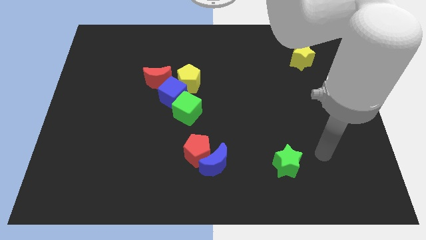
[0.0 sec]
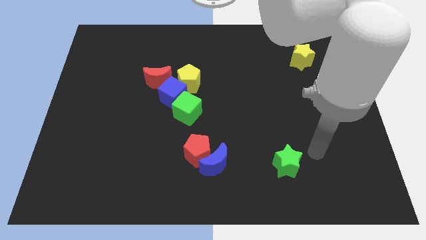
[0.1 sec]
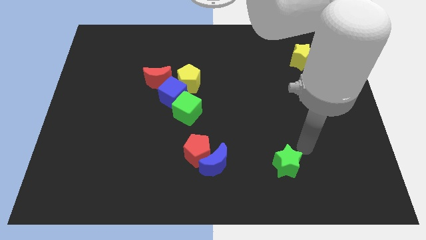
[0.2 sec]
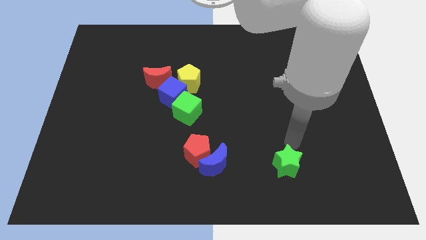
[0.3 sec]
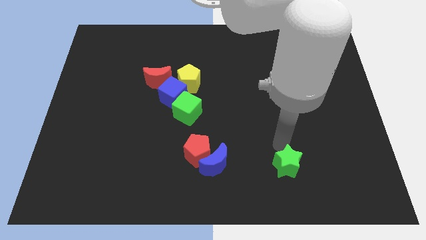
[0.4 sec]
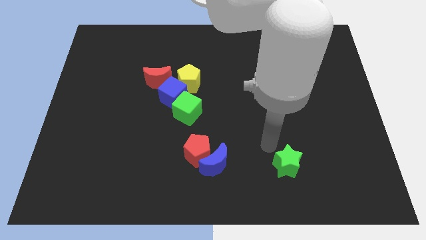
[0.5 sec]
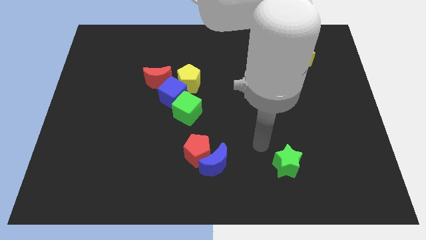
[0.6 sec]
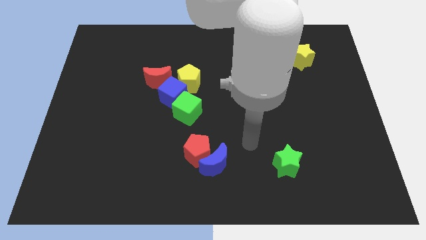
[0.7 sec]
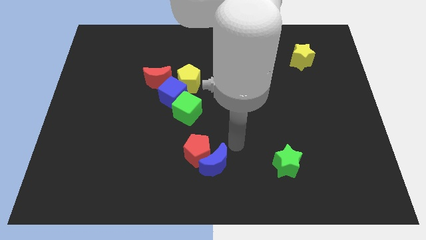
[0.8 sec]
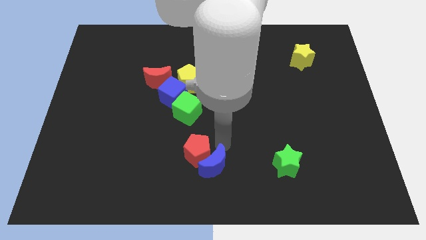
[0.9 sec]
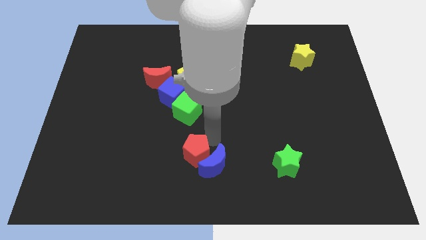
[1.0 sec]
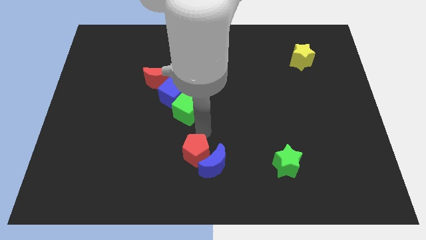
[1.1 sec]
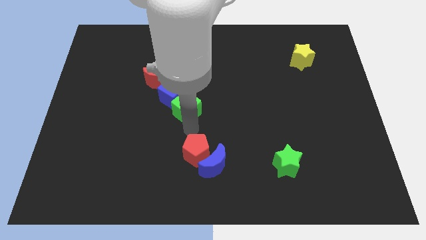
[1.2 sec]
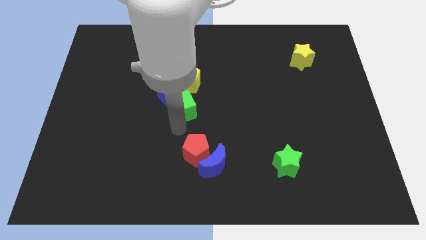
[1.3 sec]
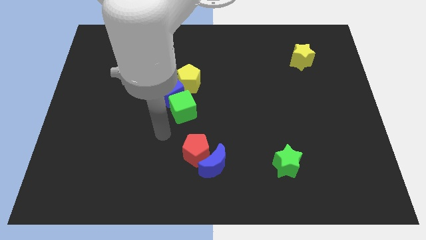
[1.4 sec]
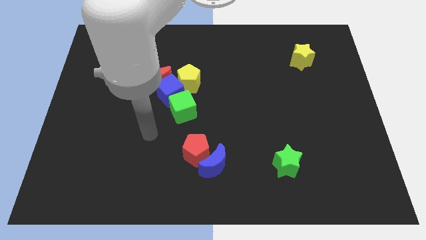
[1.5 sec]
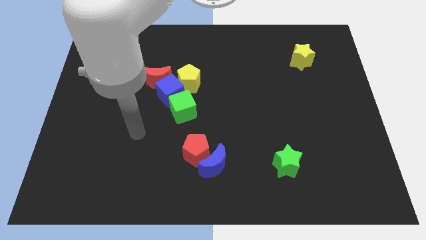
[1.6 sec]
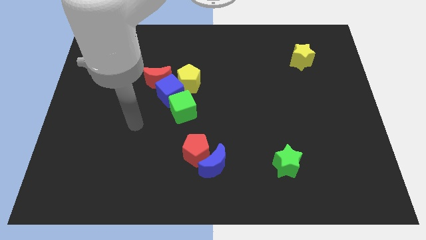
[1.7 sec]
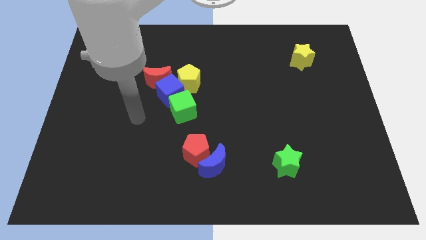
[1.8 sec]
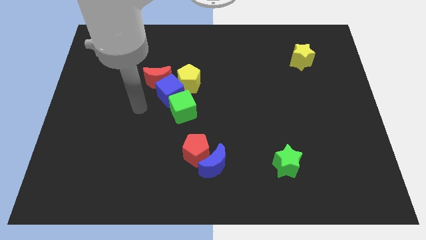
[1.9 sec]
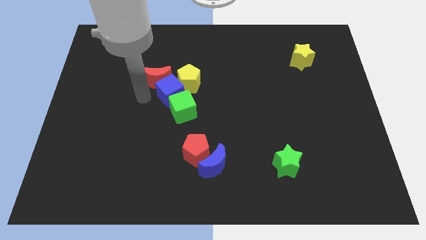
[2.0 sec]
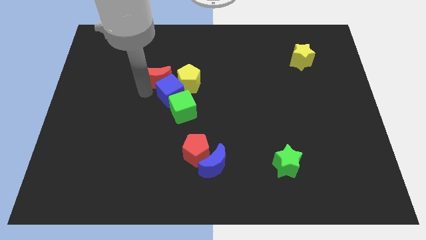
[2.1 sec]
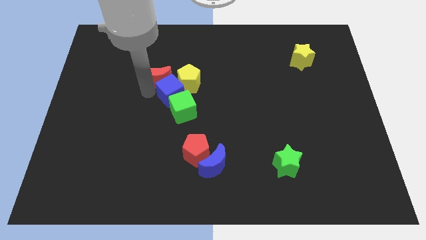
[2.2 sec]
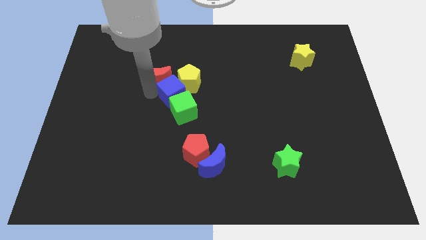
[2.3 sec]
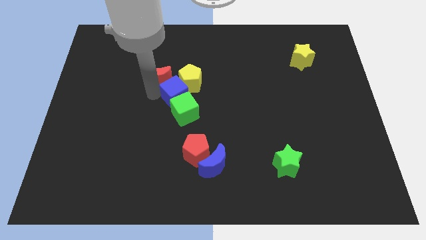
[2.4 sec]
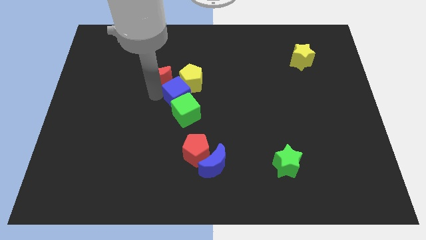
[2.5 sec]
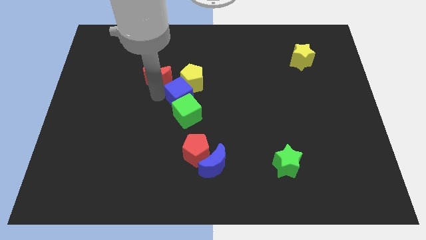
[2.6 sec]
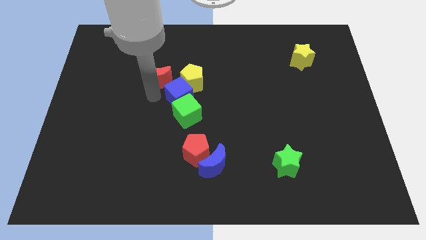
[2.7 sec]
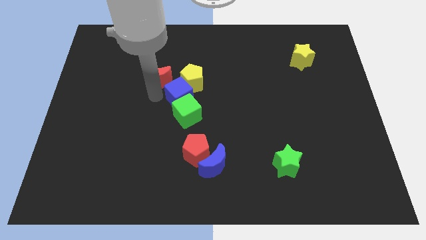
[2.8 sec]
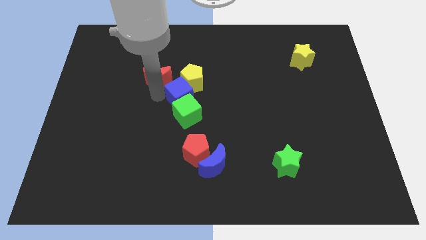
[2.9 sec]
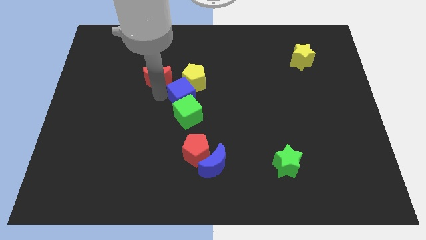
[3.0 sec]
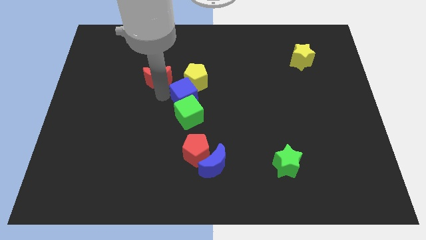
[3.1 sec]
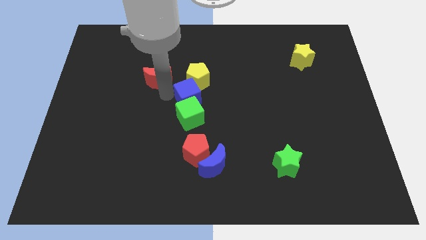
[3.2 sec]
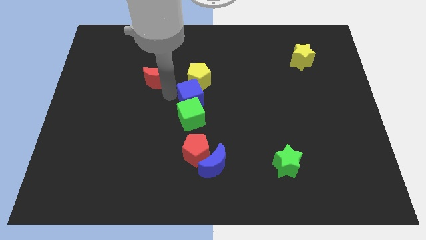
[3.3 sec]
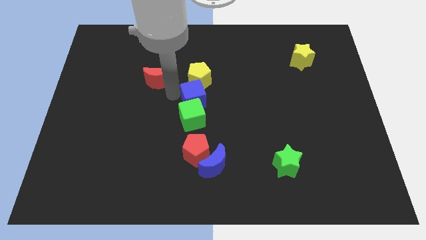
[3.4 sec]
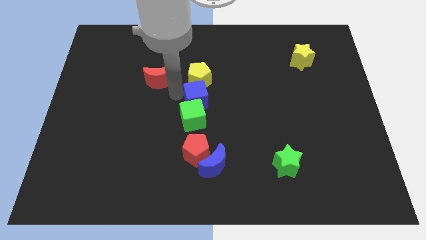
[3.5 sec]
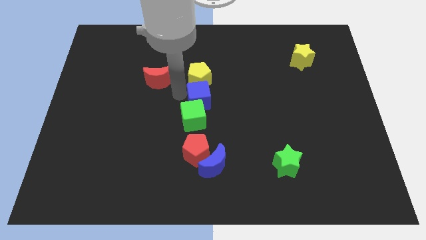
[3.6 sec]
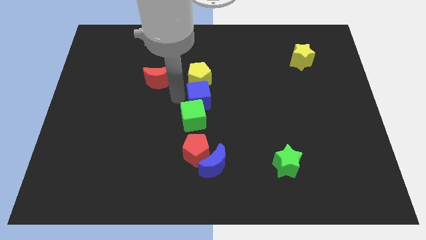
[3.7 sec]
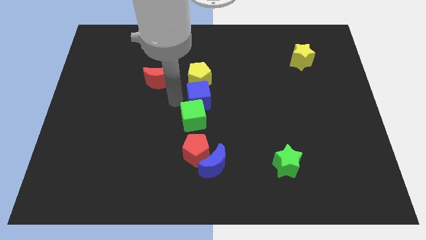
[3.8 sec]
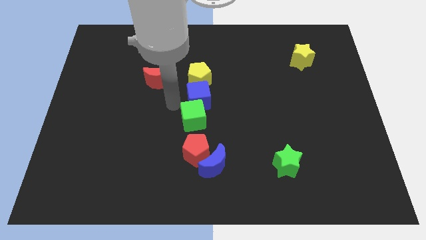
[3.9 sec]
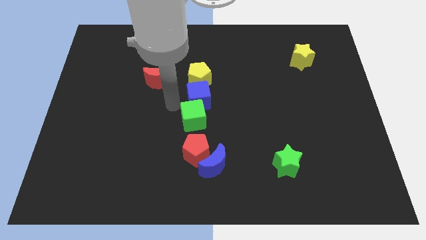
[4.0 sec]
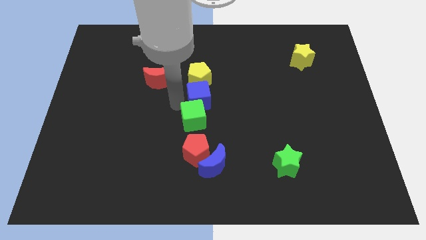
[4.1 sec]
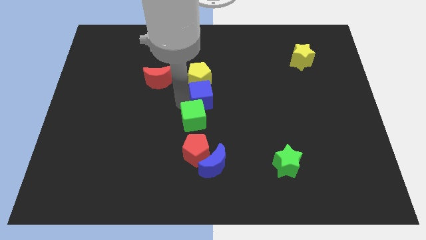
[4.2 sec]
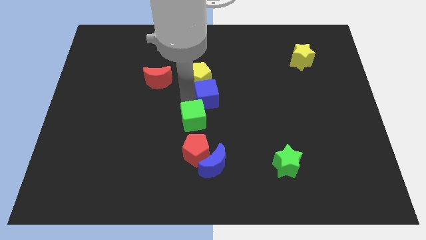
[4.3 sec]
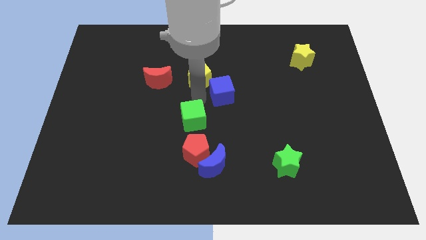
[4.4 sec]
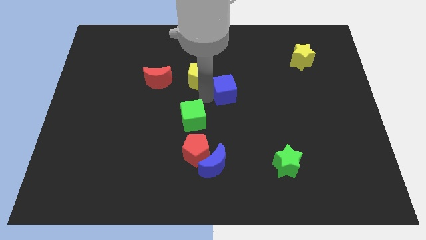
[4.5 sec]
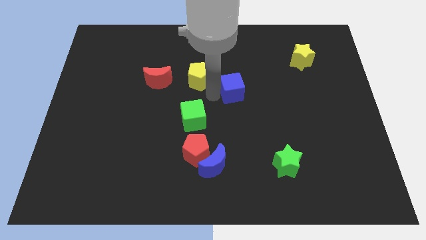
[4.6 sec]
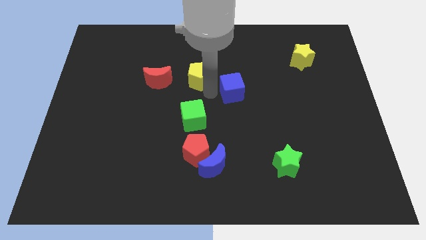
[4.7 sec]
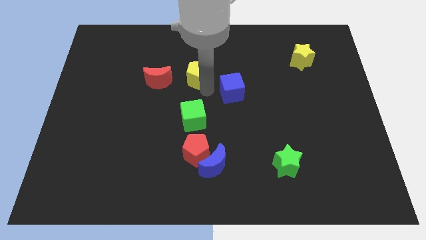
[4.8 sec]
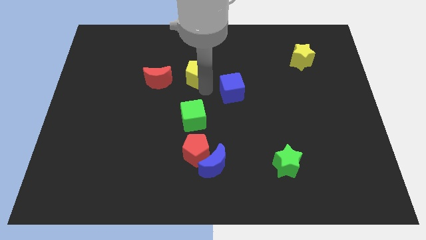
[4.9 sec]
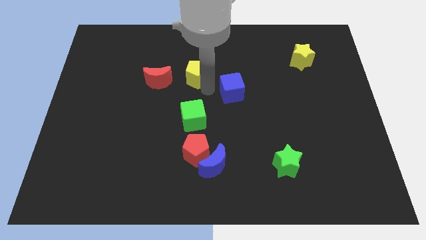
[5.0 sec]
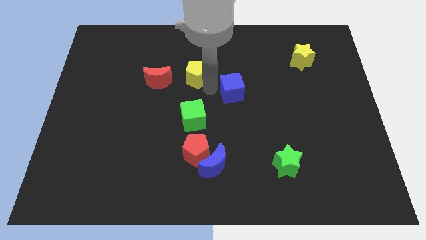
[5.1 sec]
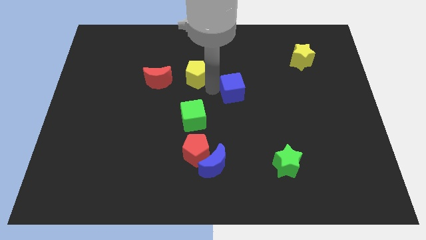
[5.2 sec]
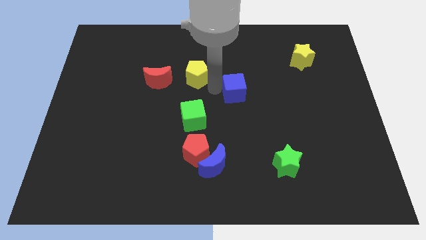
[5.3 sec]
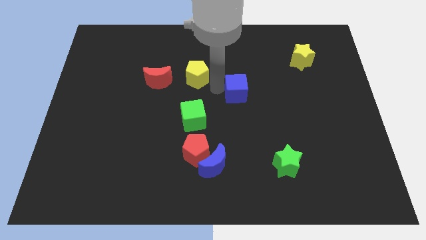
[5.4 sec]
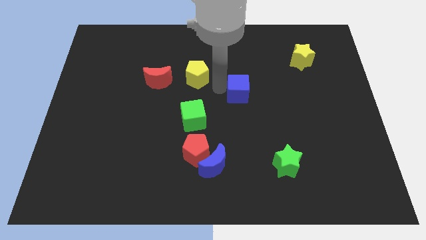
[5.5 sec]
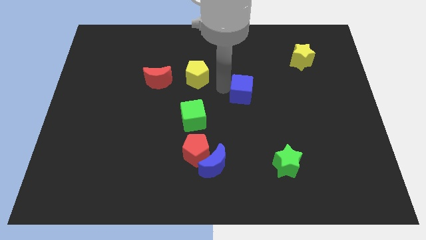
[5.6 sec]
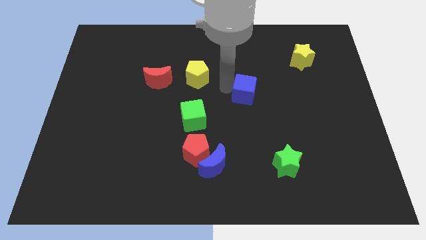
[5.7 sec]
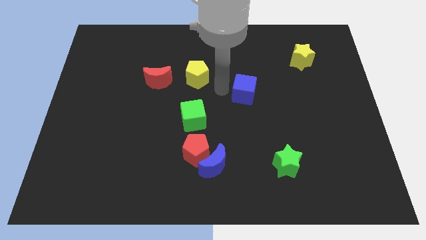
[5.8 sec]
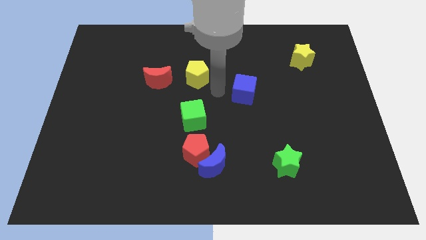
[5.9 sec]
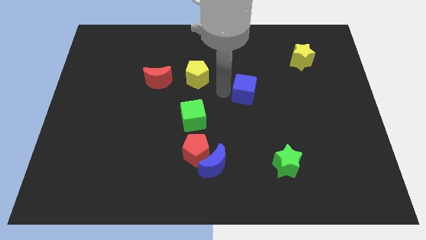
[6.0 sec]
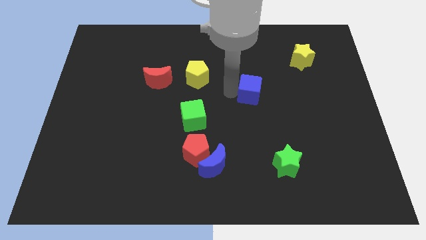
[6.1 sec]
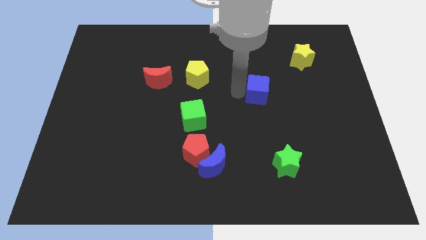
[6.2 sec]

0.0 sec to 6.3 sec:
move the blue cube to the right

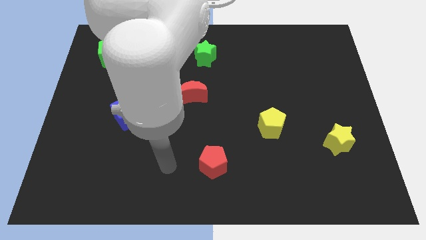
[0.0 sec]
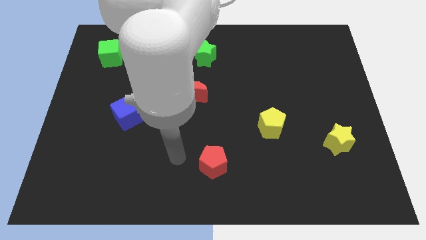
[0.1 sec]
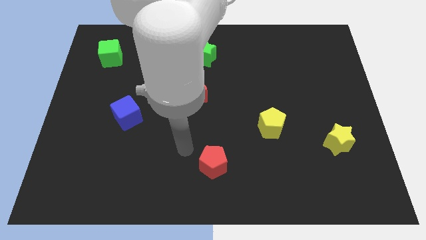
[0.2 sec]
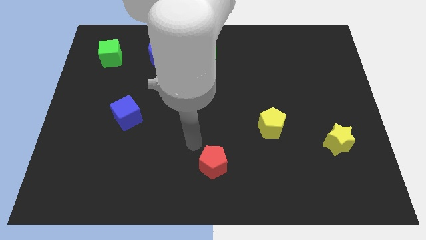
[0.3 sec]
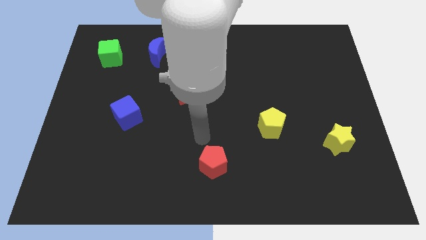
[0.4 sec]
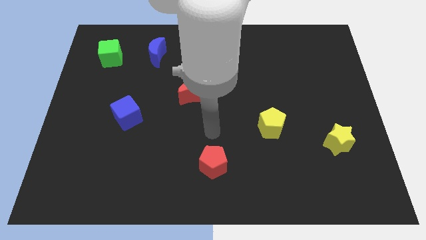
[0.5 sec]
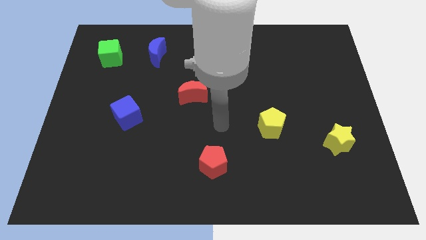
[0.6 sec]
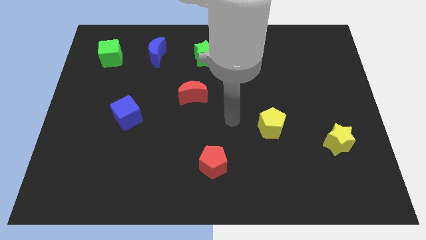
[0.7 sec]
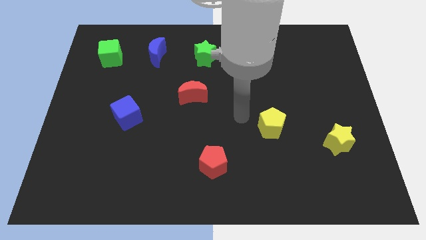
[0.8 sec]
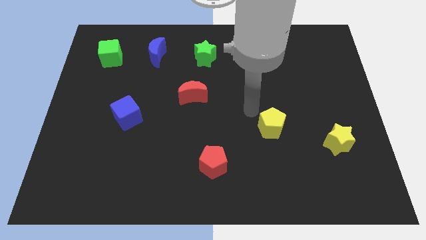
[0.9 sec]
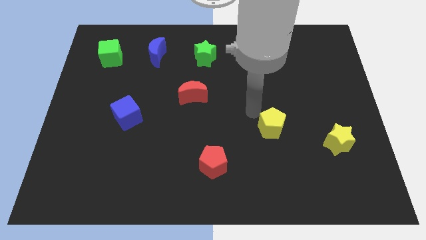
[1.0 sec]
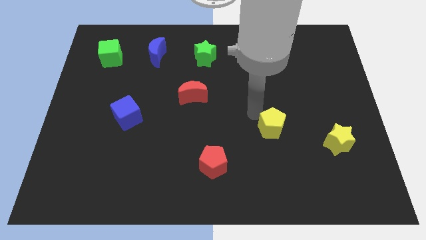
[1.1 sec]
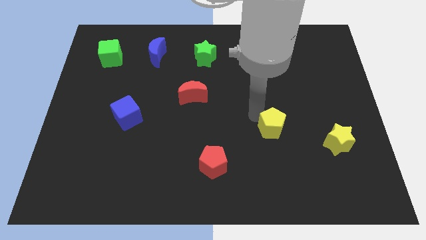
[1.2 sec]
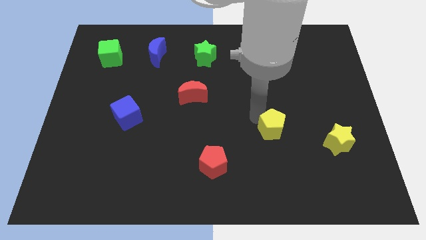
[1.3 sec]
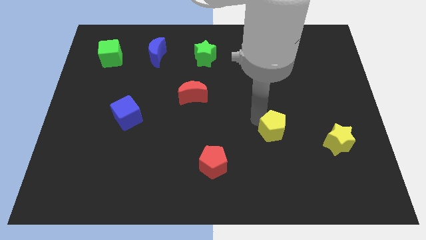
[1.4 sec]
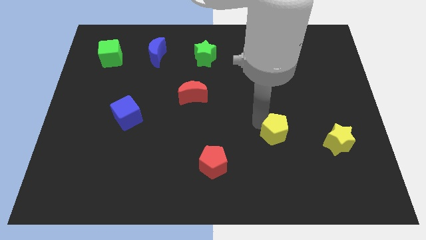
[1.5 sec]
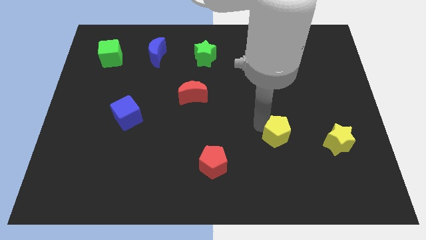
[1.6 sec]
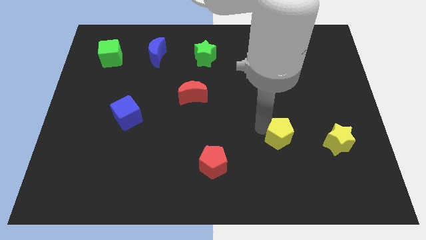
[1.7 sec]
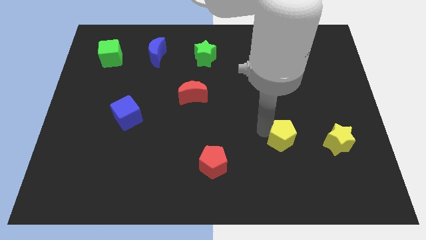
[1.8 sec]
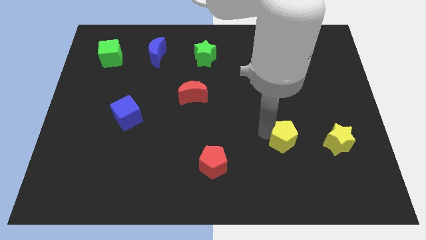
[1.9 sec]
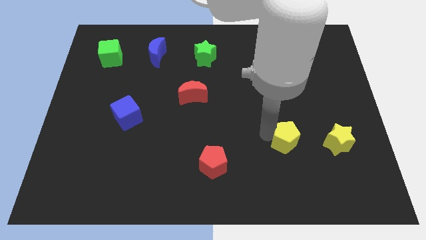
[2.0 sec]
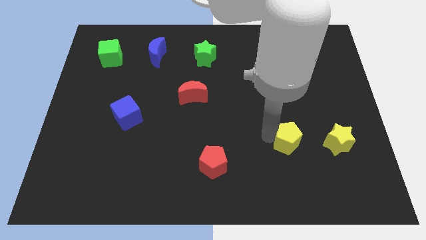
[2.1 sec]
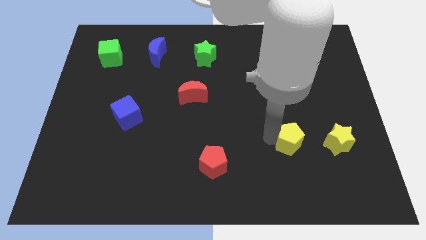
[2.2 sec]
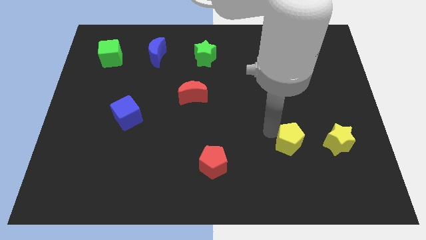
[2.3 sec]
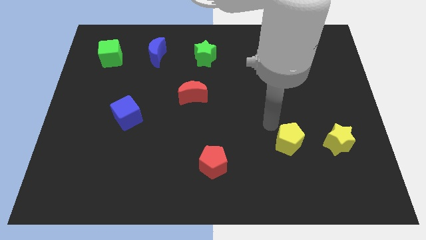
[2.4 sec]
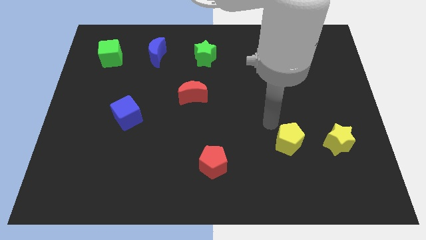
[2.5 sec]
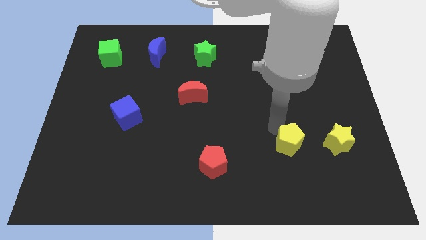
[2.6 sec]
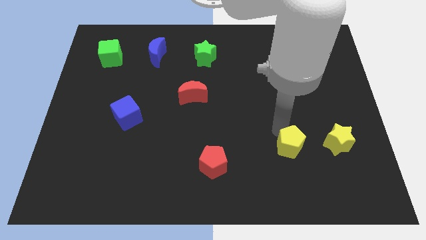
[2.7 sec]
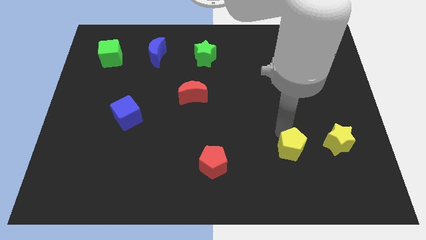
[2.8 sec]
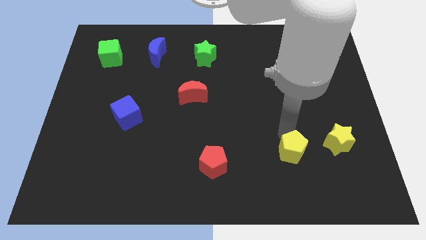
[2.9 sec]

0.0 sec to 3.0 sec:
slightly slide the yellow pentagon down and right
